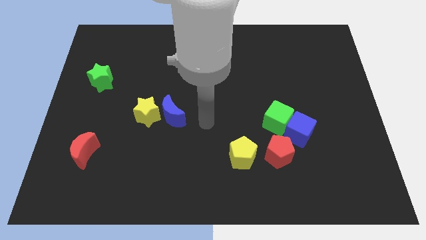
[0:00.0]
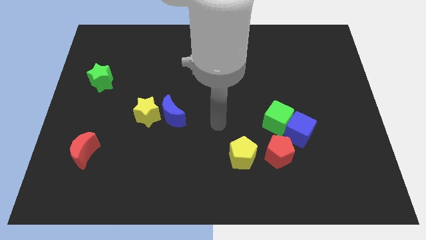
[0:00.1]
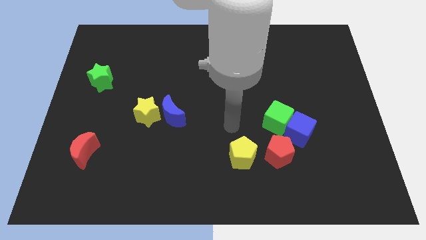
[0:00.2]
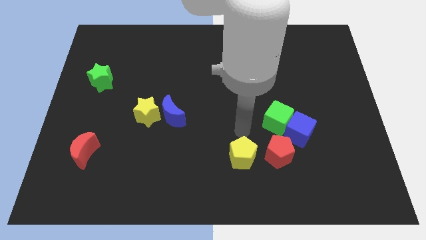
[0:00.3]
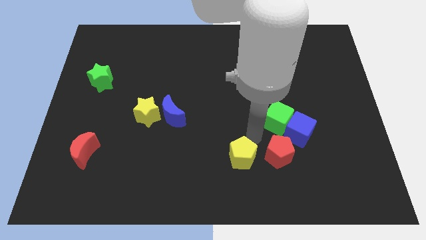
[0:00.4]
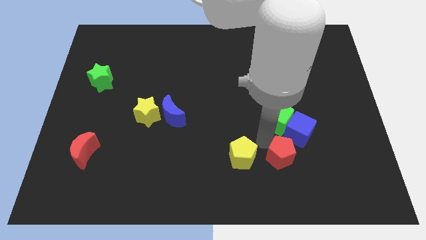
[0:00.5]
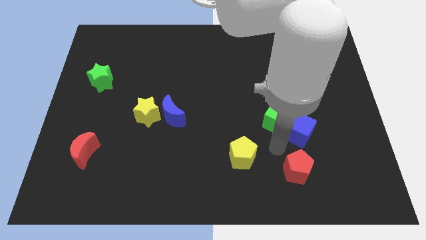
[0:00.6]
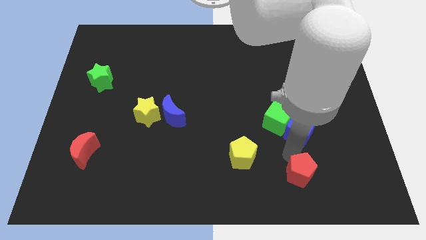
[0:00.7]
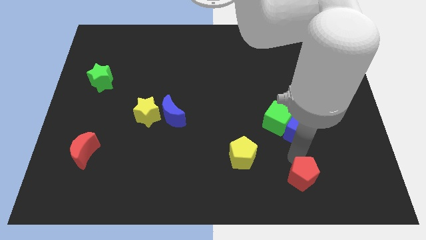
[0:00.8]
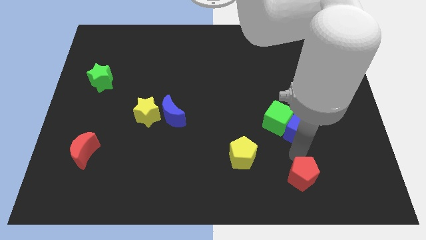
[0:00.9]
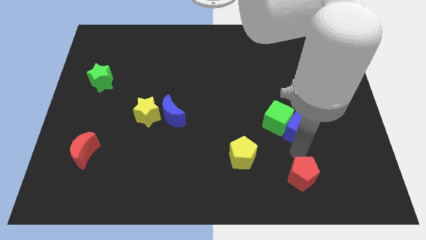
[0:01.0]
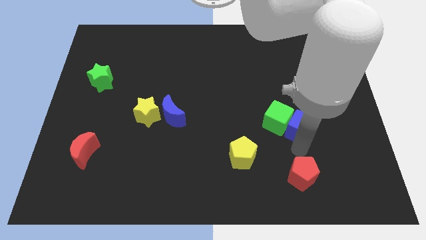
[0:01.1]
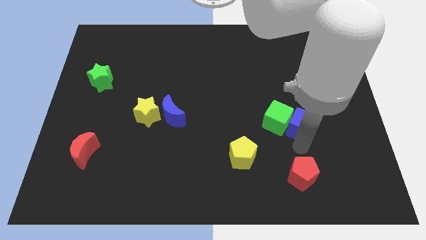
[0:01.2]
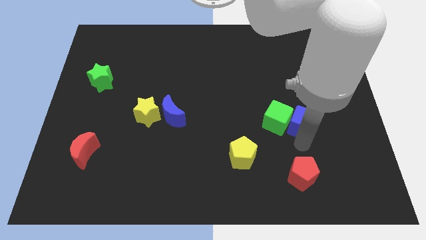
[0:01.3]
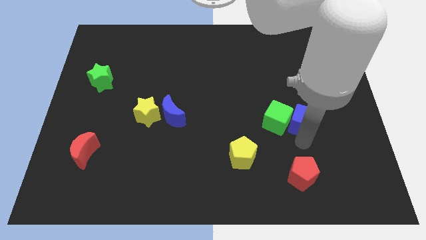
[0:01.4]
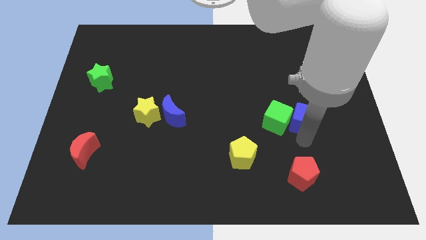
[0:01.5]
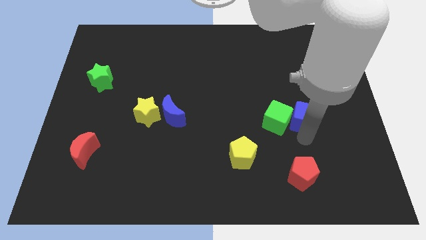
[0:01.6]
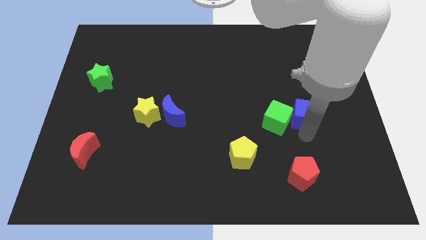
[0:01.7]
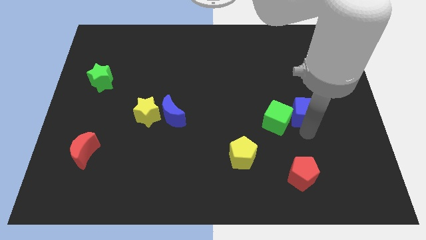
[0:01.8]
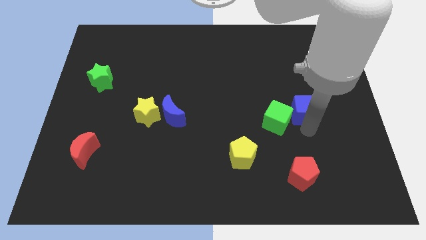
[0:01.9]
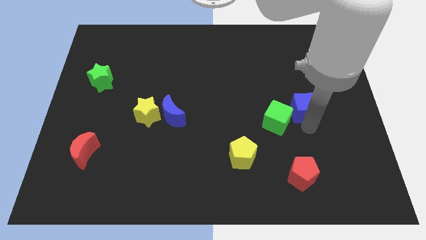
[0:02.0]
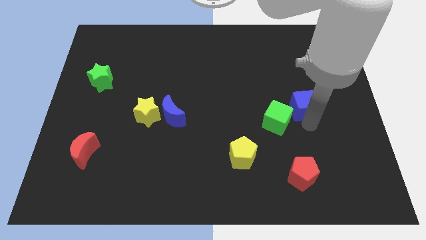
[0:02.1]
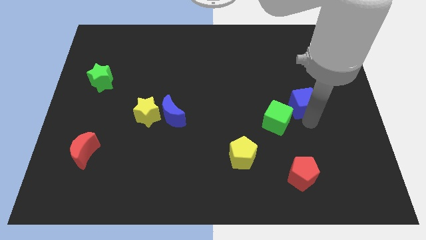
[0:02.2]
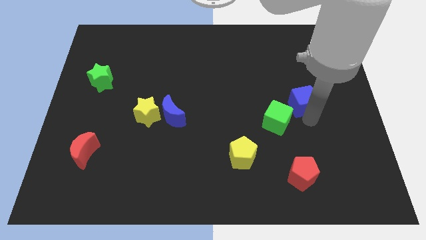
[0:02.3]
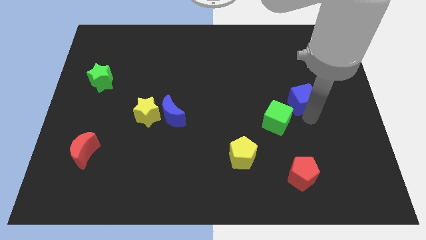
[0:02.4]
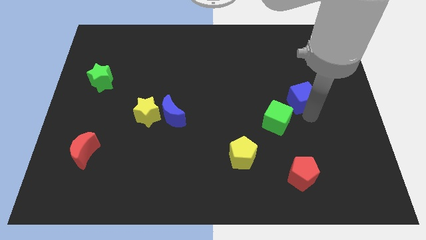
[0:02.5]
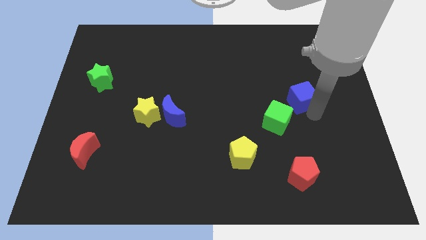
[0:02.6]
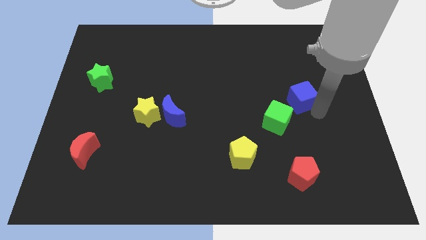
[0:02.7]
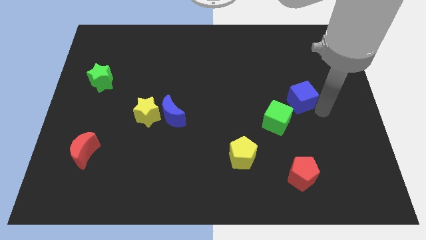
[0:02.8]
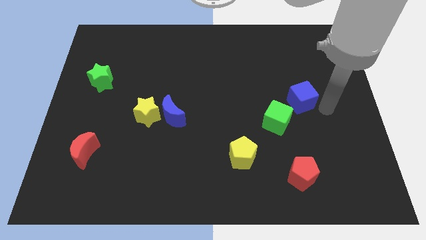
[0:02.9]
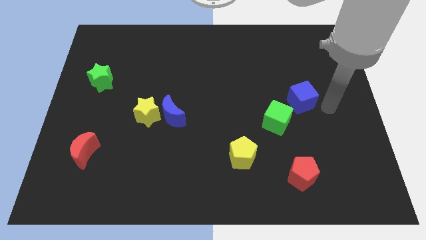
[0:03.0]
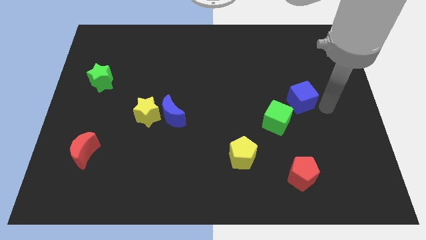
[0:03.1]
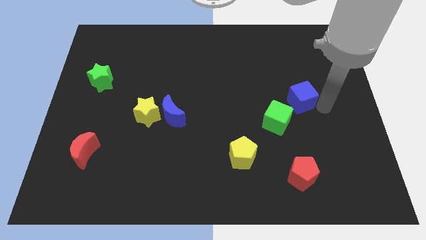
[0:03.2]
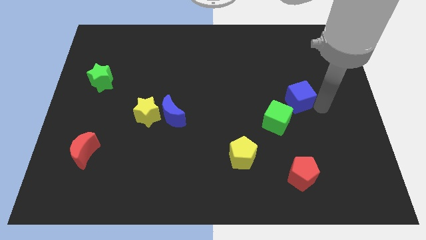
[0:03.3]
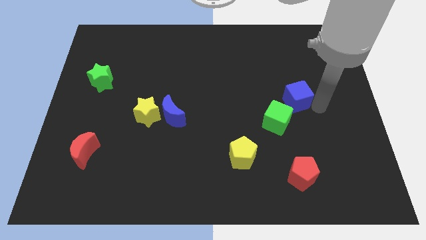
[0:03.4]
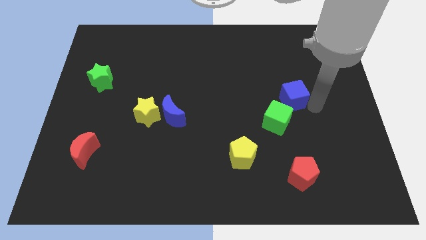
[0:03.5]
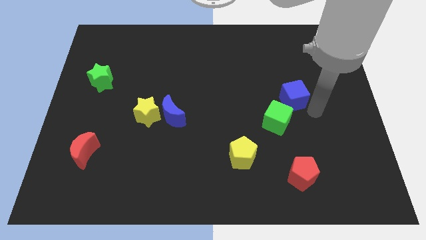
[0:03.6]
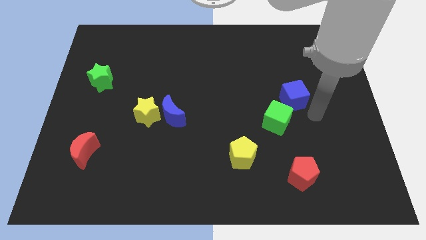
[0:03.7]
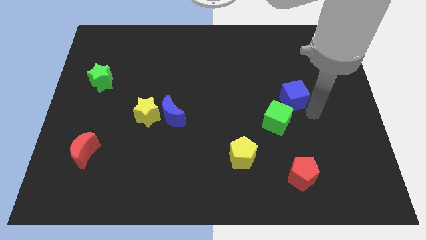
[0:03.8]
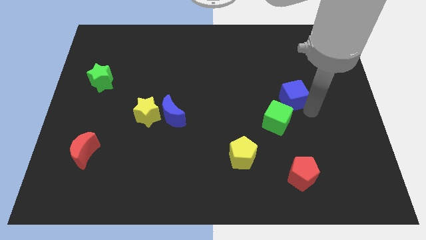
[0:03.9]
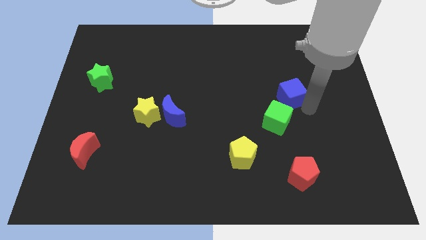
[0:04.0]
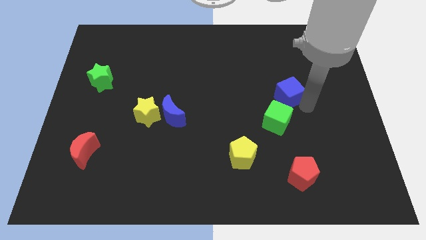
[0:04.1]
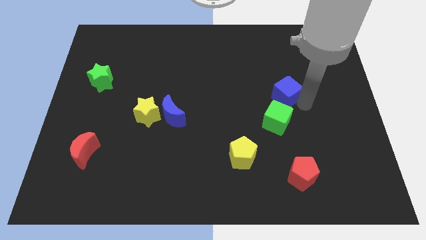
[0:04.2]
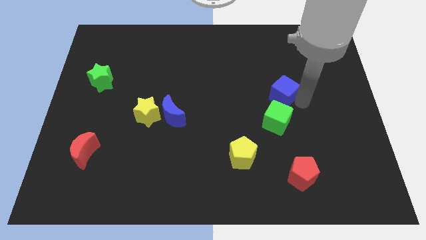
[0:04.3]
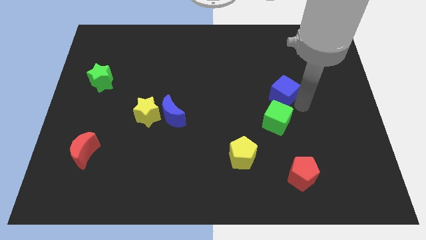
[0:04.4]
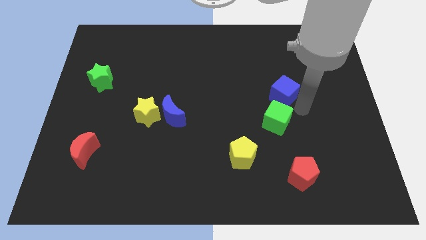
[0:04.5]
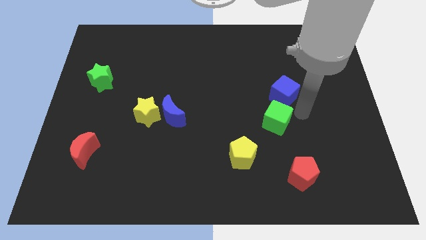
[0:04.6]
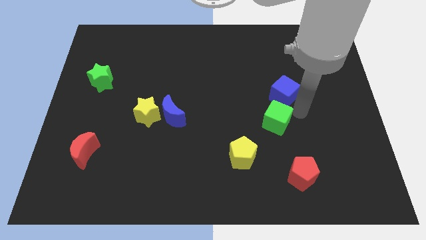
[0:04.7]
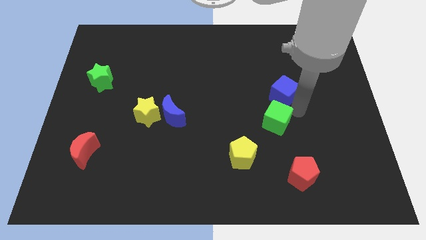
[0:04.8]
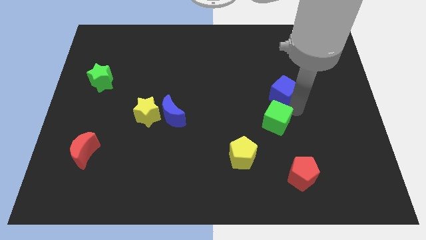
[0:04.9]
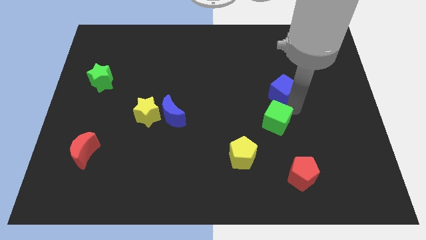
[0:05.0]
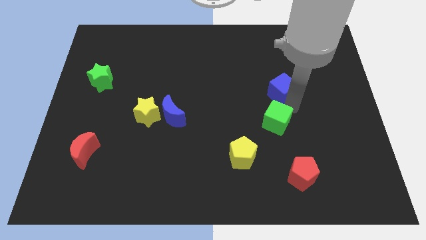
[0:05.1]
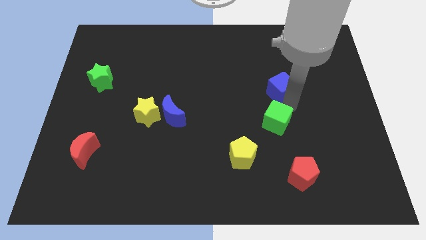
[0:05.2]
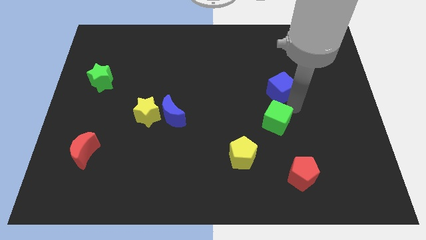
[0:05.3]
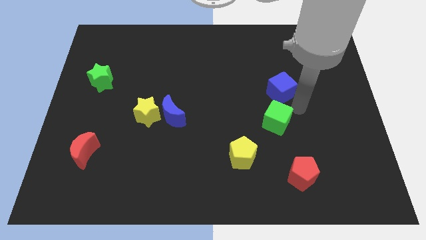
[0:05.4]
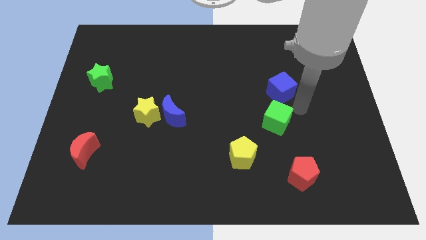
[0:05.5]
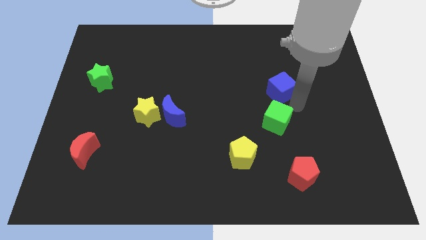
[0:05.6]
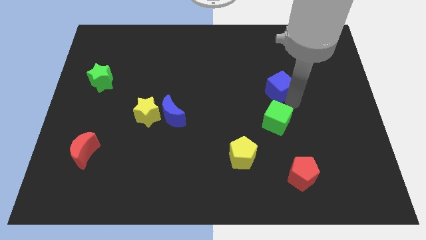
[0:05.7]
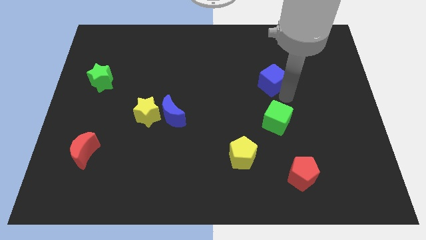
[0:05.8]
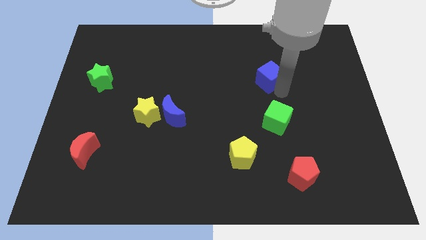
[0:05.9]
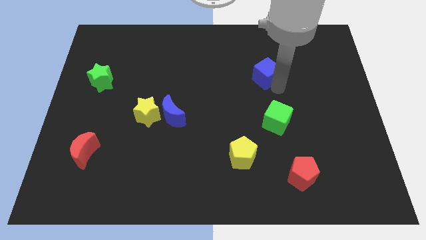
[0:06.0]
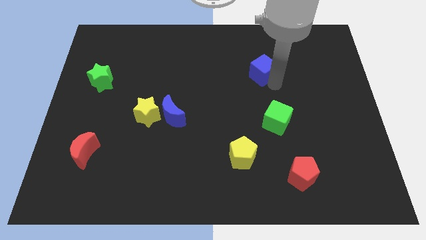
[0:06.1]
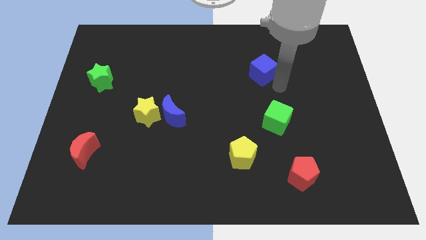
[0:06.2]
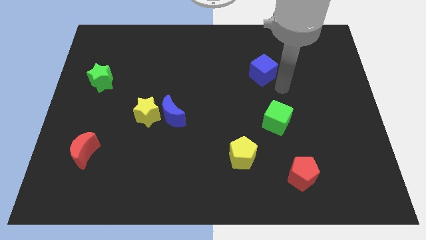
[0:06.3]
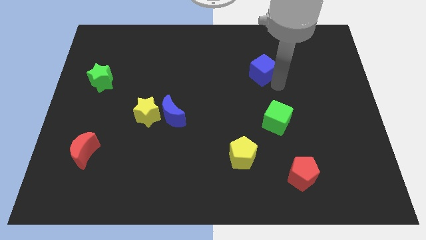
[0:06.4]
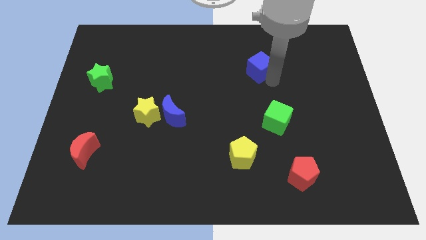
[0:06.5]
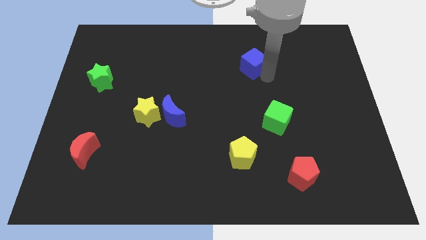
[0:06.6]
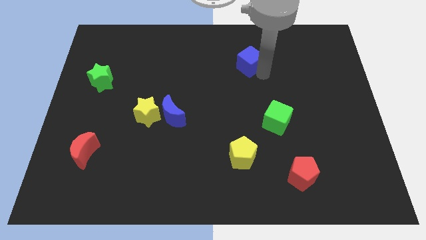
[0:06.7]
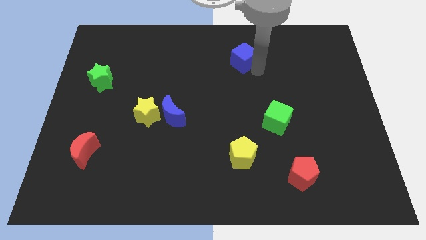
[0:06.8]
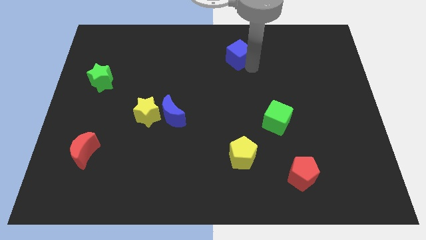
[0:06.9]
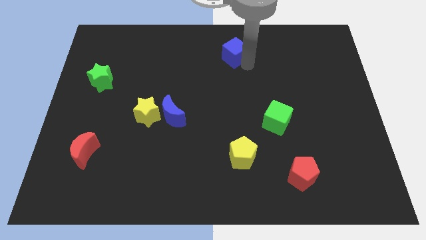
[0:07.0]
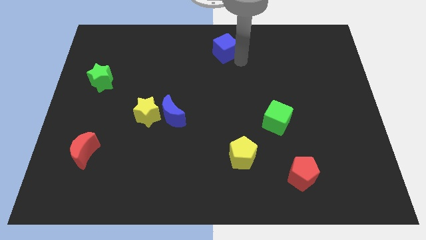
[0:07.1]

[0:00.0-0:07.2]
put the blue cube to the towards your base
